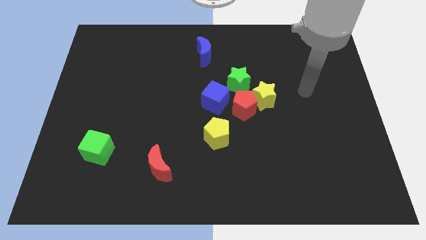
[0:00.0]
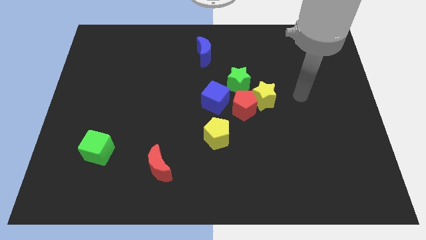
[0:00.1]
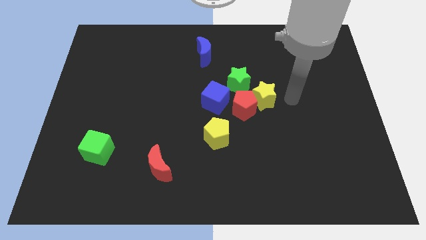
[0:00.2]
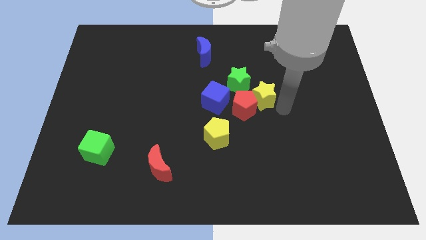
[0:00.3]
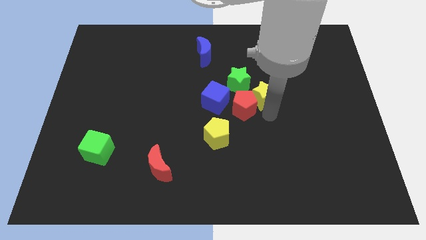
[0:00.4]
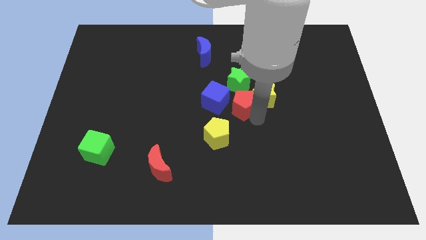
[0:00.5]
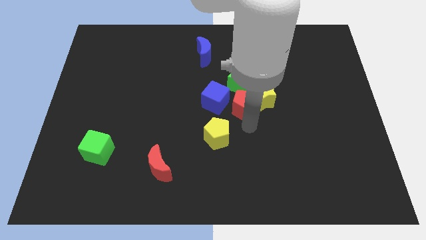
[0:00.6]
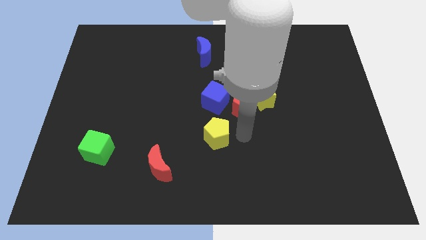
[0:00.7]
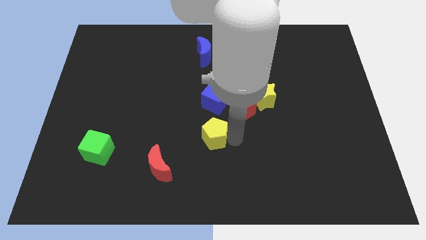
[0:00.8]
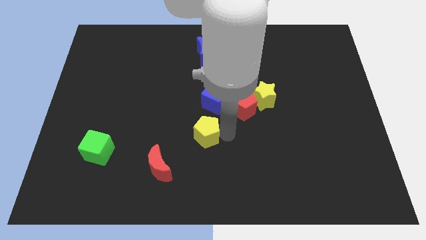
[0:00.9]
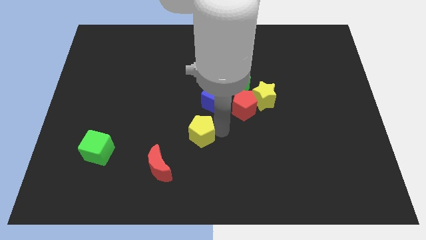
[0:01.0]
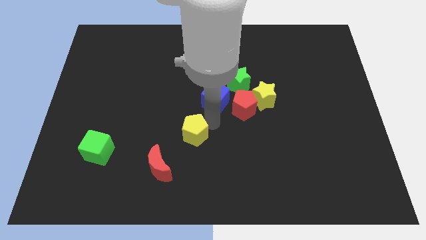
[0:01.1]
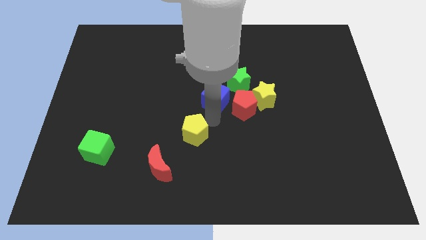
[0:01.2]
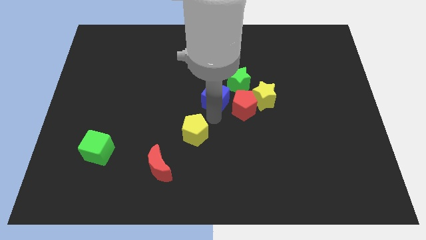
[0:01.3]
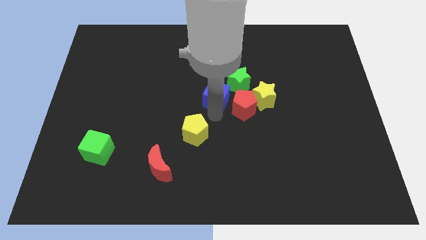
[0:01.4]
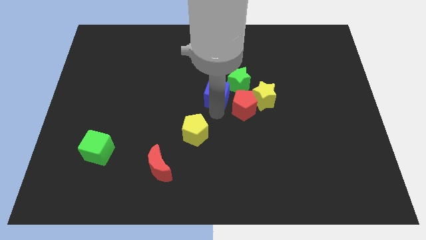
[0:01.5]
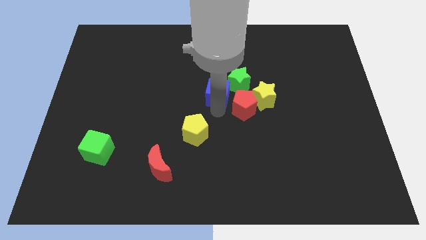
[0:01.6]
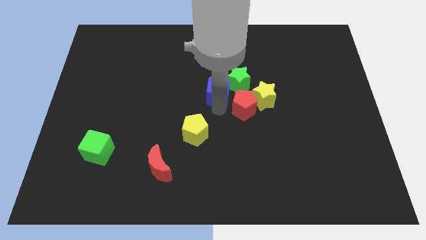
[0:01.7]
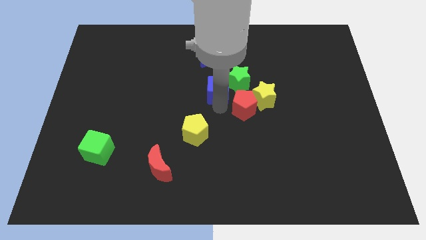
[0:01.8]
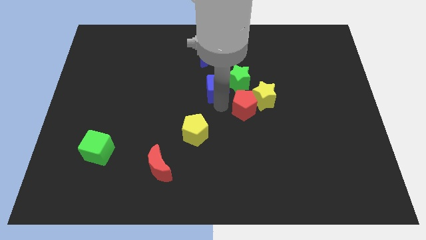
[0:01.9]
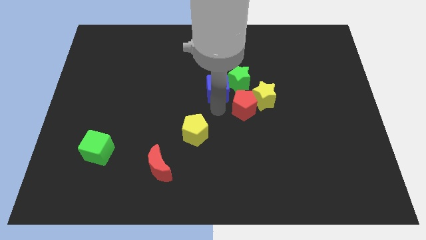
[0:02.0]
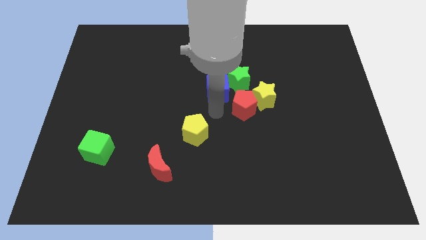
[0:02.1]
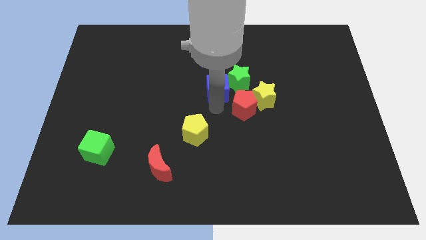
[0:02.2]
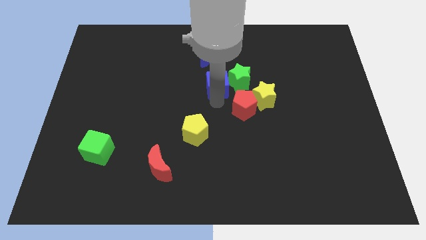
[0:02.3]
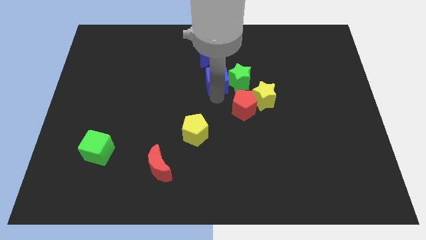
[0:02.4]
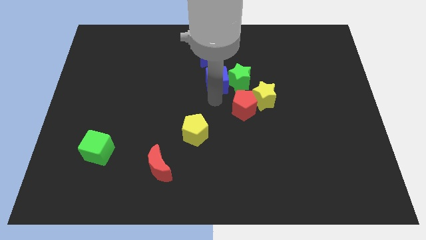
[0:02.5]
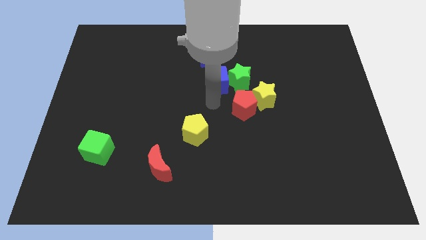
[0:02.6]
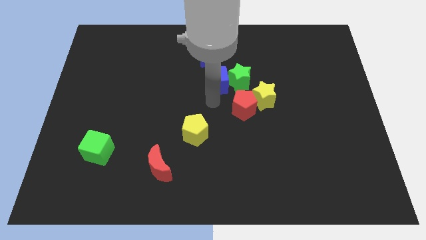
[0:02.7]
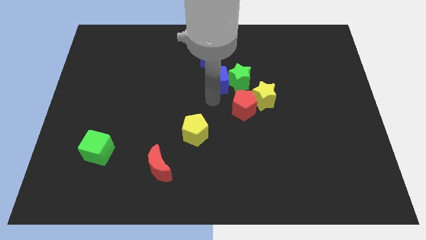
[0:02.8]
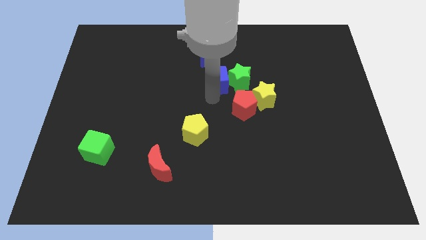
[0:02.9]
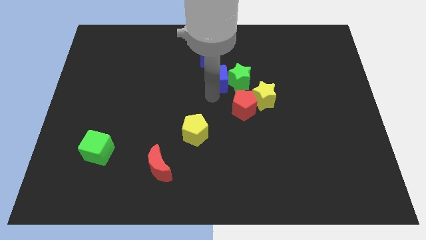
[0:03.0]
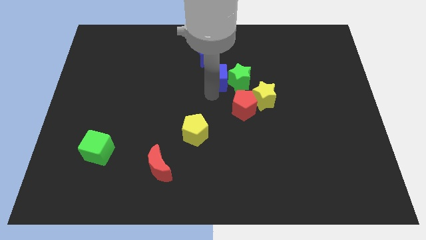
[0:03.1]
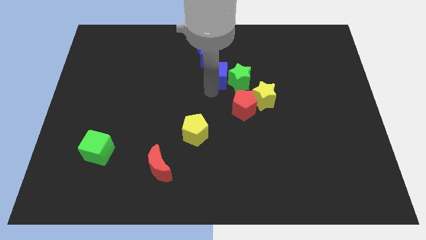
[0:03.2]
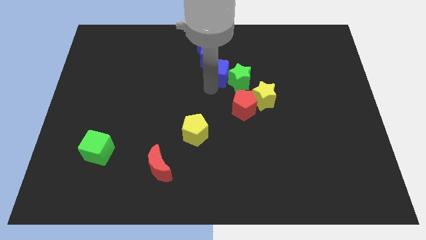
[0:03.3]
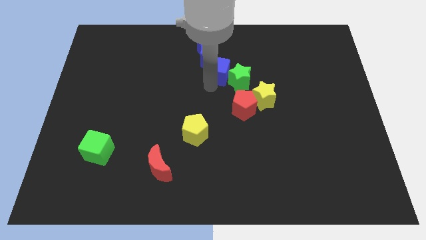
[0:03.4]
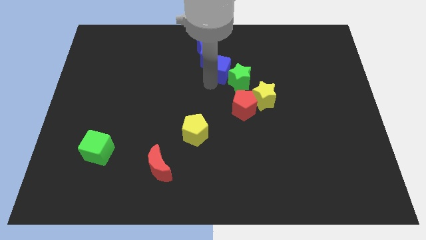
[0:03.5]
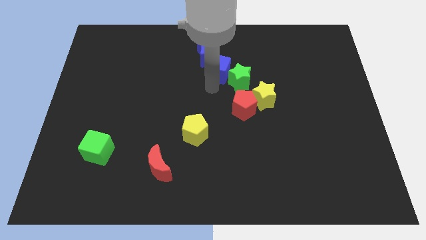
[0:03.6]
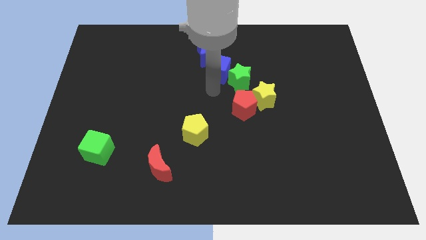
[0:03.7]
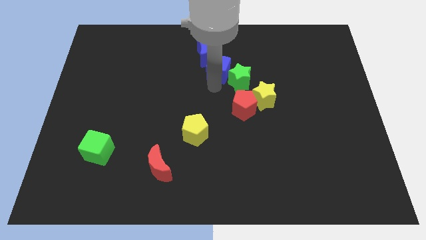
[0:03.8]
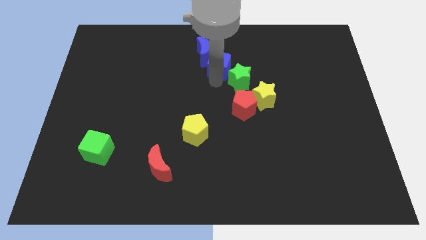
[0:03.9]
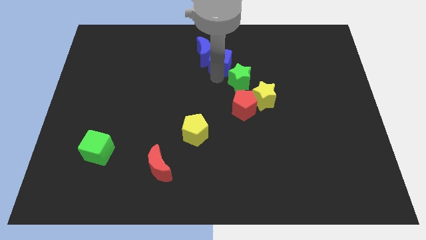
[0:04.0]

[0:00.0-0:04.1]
slide the blue cube somewhat up and right

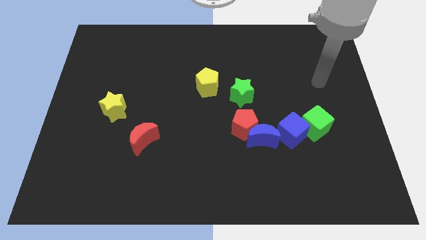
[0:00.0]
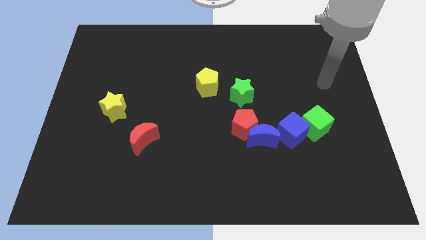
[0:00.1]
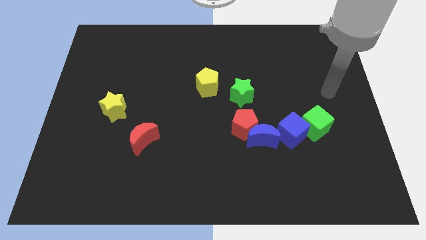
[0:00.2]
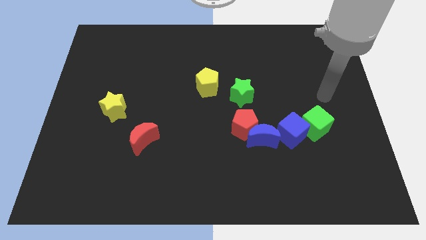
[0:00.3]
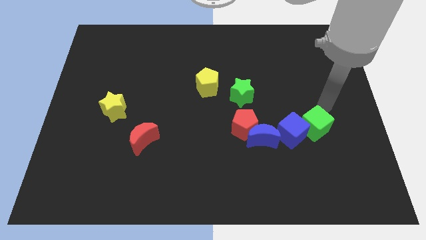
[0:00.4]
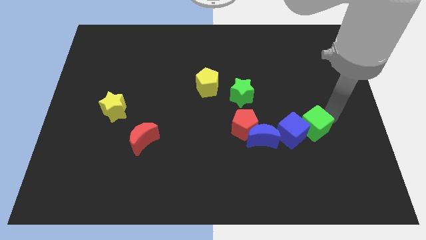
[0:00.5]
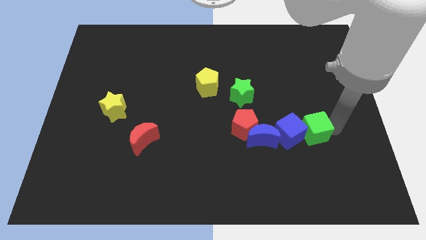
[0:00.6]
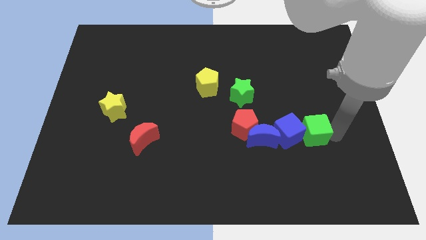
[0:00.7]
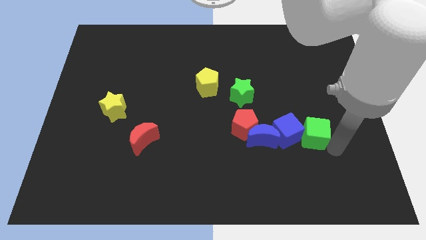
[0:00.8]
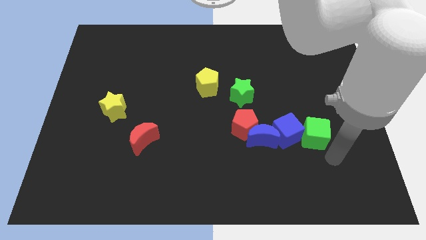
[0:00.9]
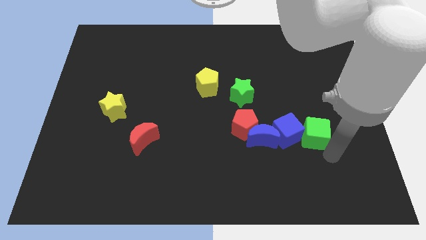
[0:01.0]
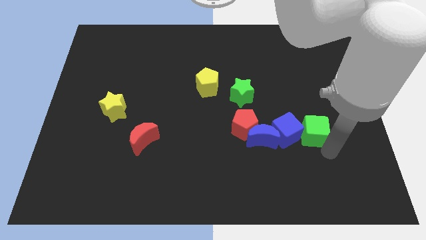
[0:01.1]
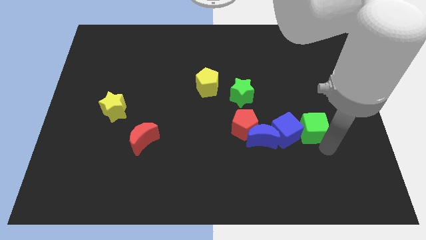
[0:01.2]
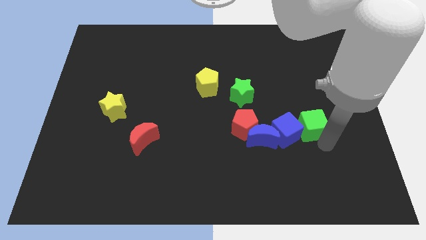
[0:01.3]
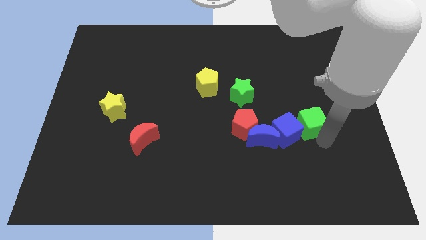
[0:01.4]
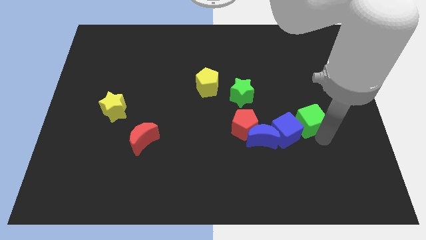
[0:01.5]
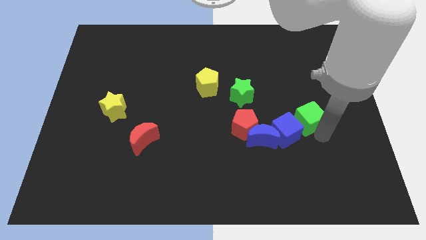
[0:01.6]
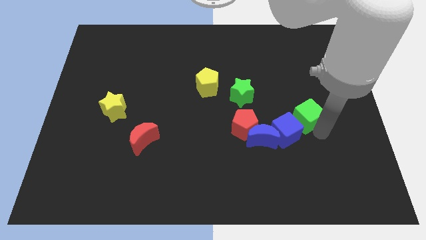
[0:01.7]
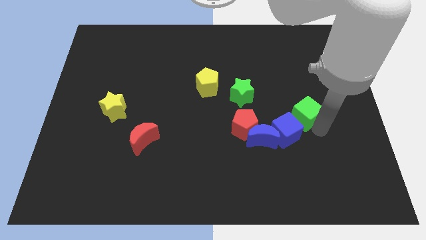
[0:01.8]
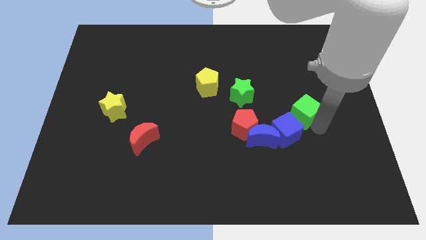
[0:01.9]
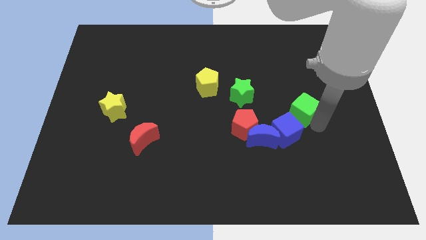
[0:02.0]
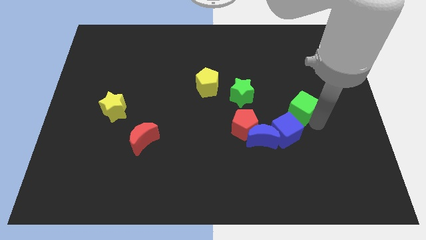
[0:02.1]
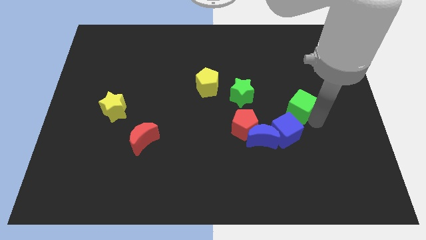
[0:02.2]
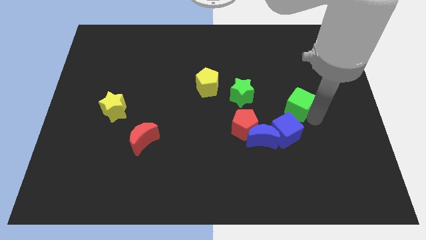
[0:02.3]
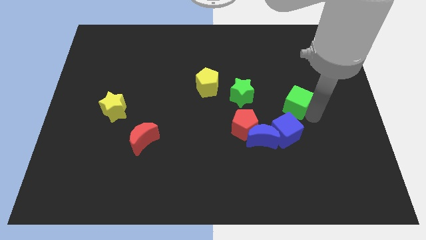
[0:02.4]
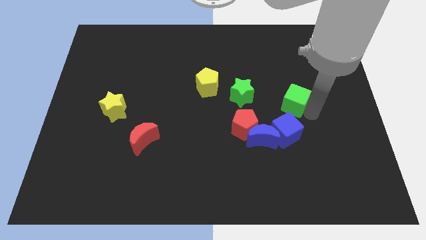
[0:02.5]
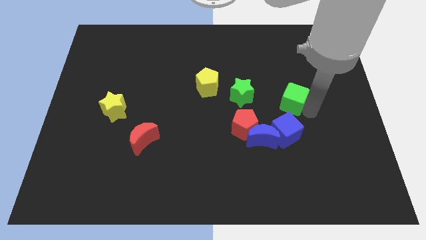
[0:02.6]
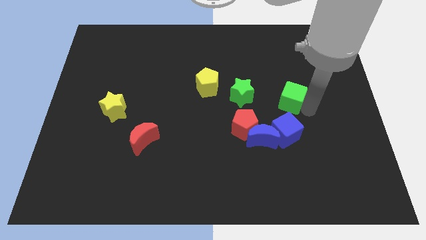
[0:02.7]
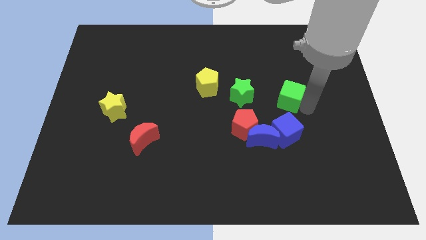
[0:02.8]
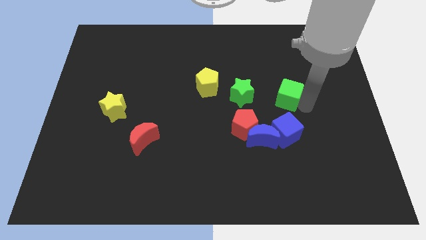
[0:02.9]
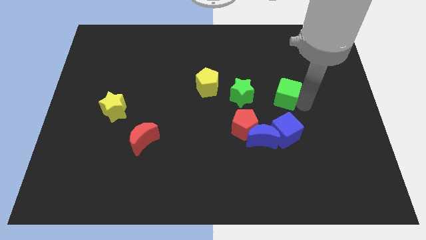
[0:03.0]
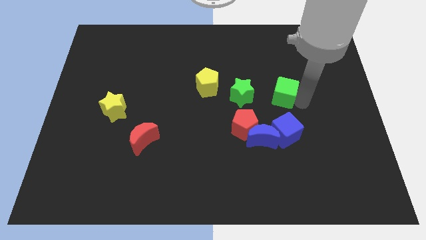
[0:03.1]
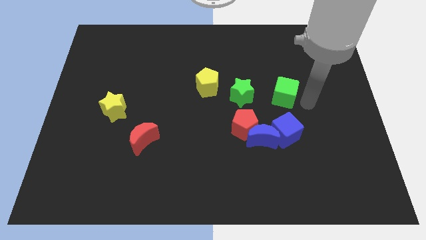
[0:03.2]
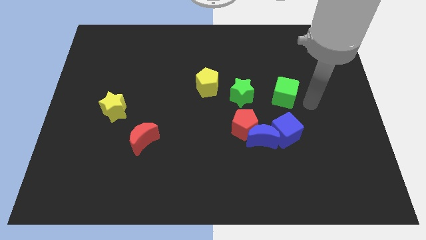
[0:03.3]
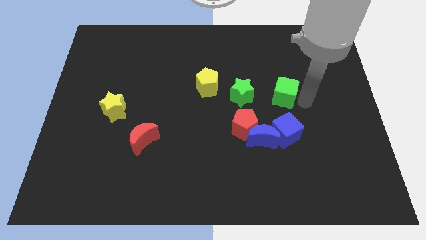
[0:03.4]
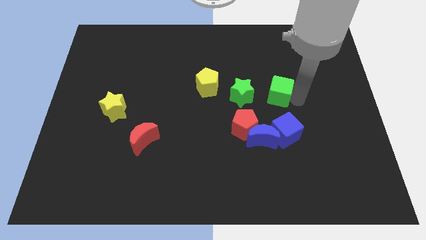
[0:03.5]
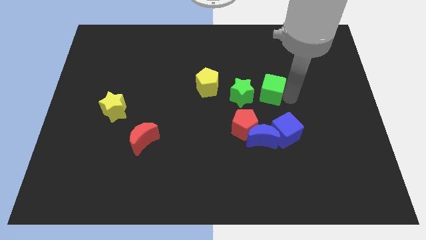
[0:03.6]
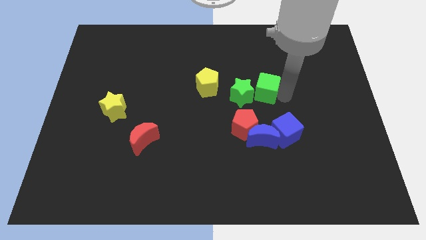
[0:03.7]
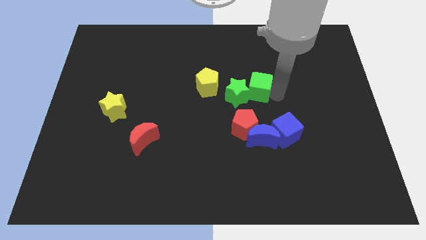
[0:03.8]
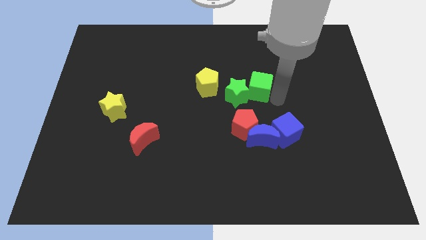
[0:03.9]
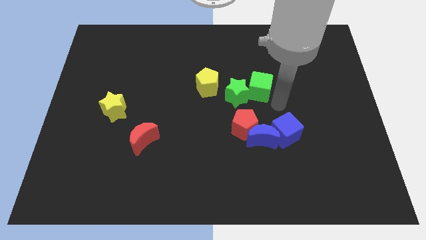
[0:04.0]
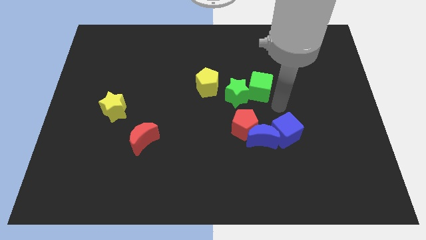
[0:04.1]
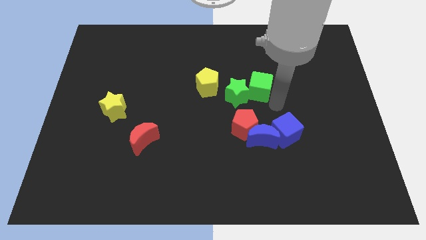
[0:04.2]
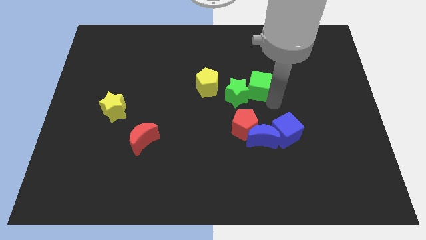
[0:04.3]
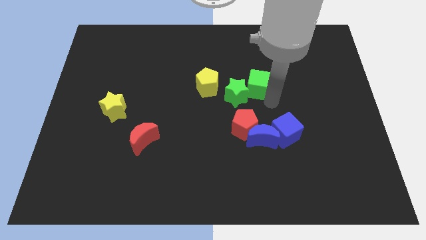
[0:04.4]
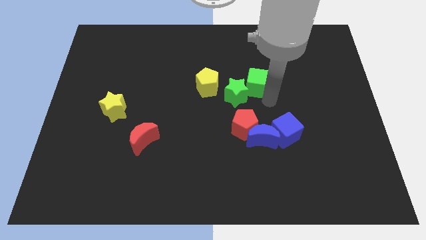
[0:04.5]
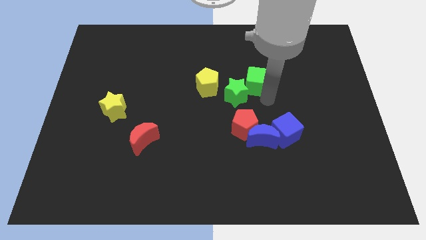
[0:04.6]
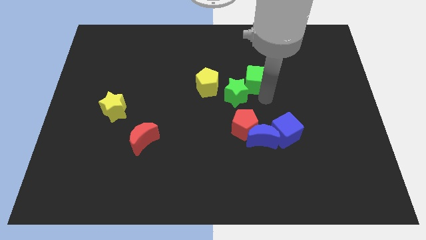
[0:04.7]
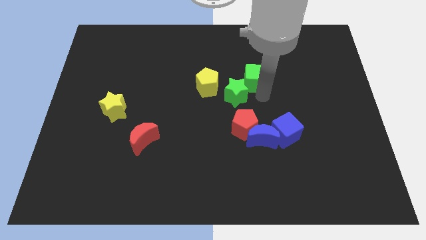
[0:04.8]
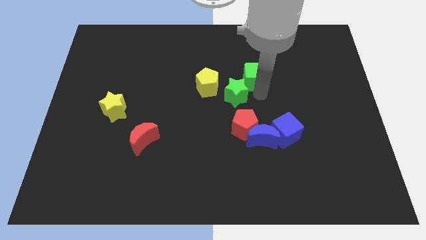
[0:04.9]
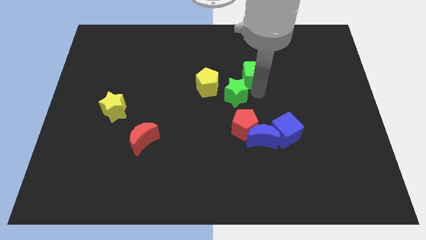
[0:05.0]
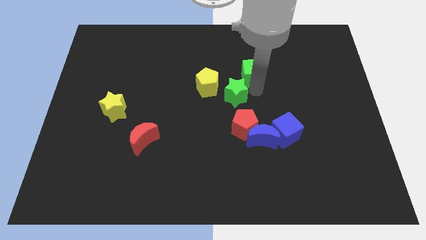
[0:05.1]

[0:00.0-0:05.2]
move the green cube diagonally upwards and left
